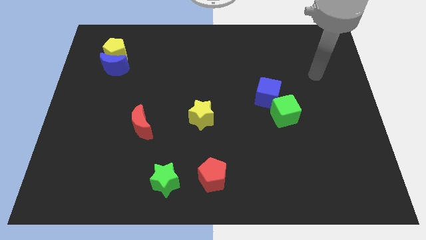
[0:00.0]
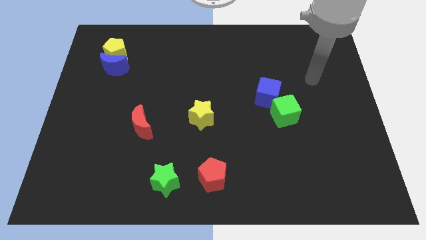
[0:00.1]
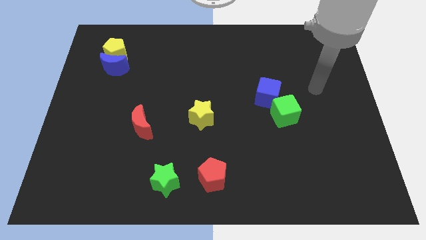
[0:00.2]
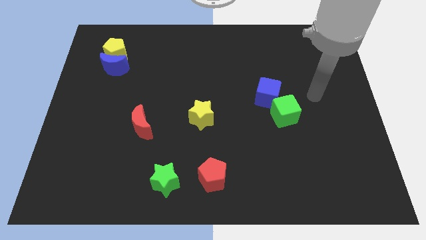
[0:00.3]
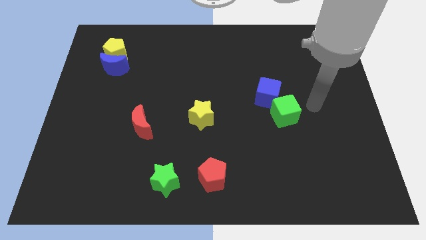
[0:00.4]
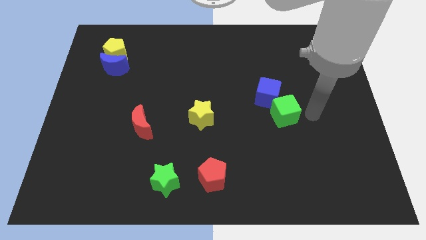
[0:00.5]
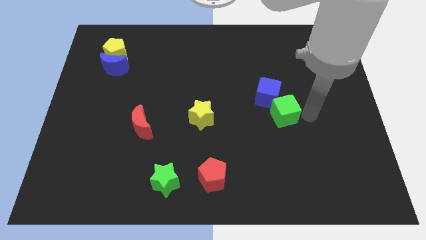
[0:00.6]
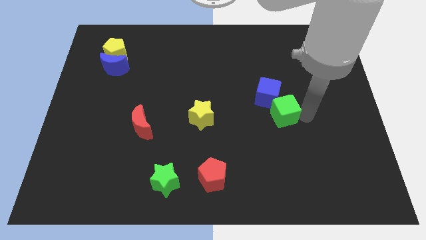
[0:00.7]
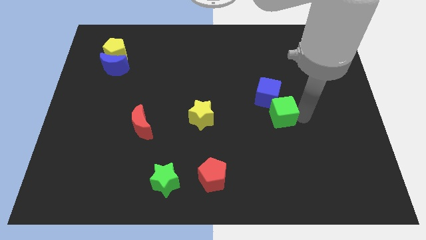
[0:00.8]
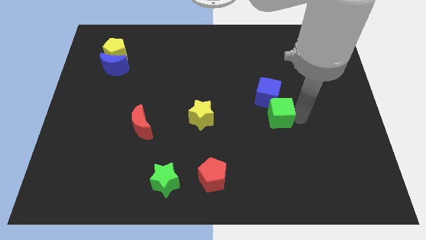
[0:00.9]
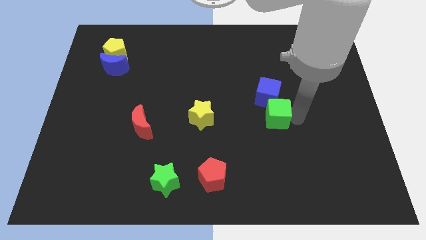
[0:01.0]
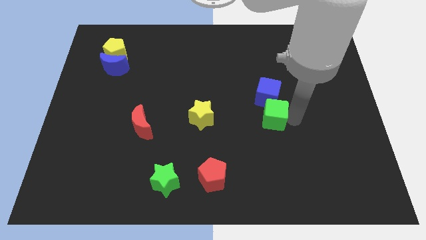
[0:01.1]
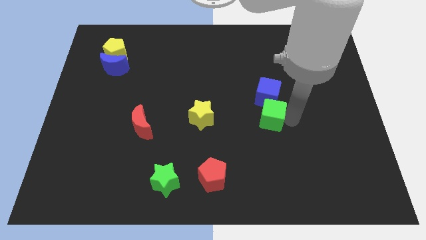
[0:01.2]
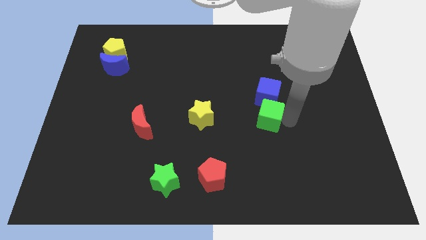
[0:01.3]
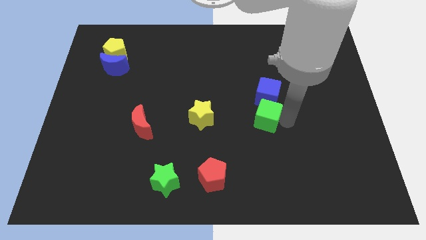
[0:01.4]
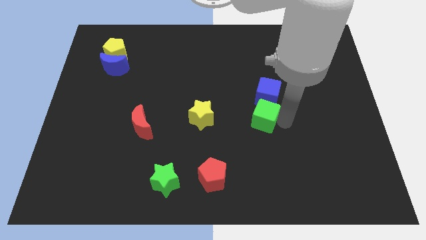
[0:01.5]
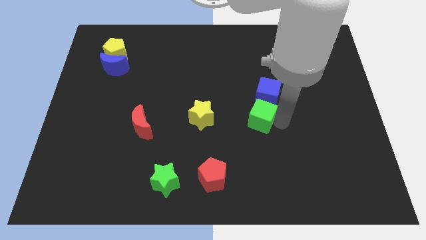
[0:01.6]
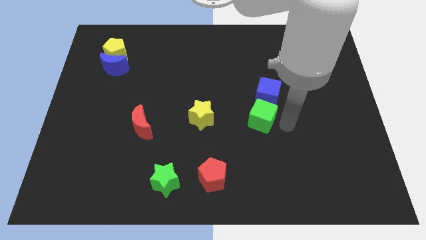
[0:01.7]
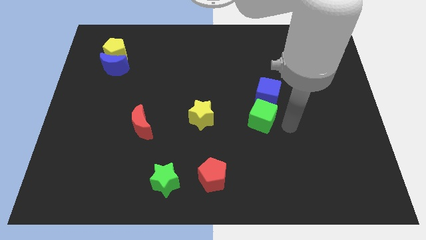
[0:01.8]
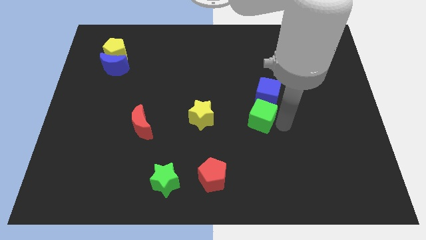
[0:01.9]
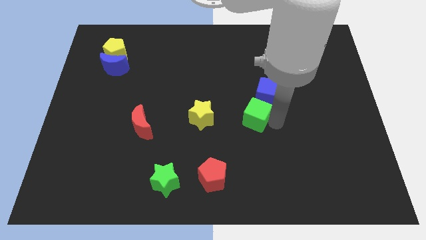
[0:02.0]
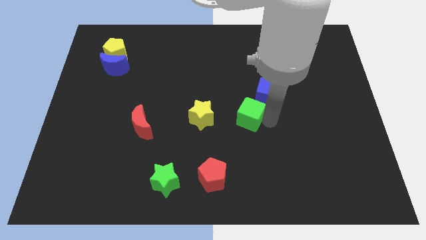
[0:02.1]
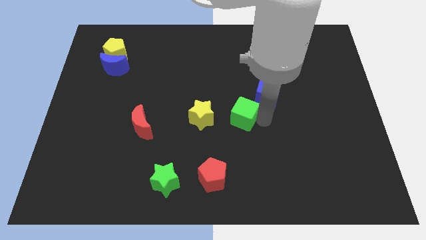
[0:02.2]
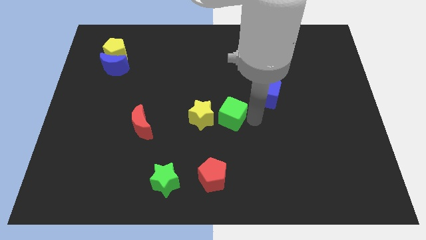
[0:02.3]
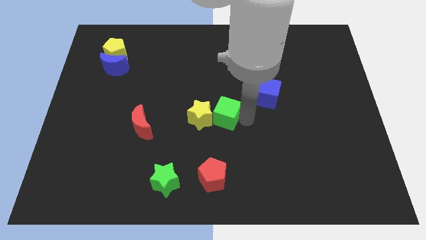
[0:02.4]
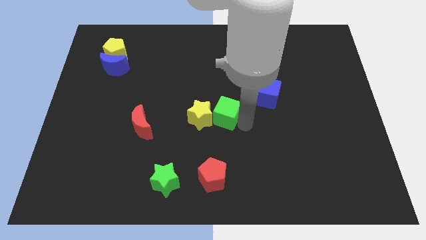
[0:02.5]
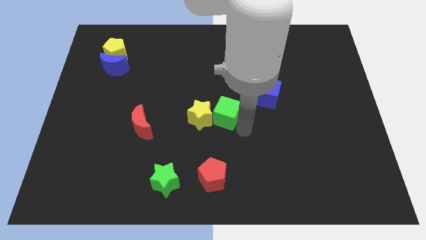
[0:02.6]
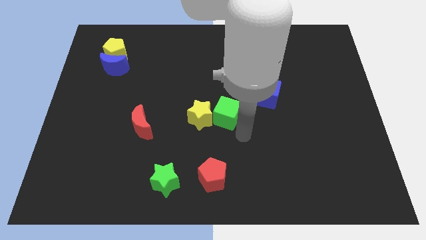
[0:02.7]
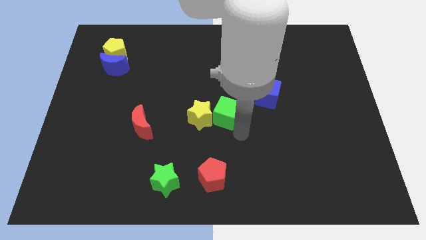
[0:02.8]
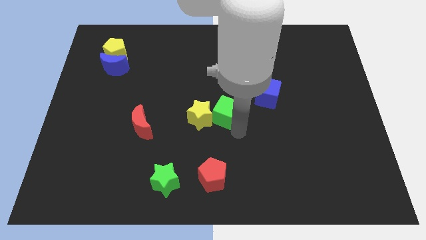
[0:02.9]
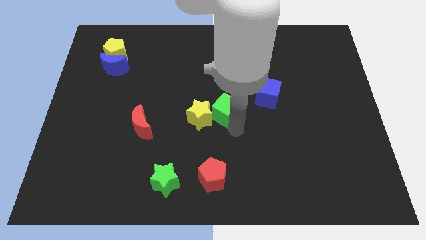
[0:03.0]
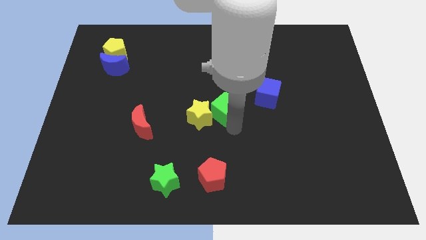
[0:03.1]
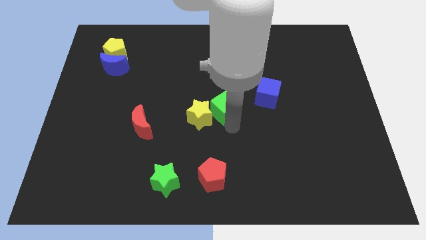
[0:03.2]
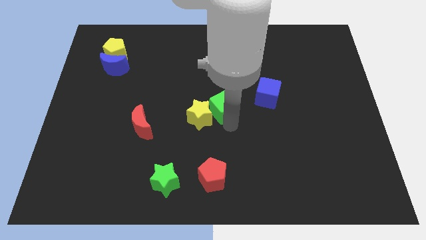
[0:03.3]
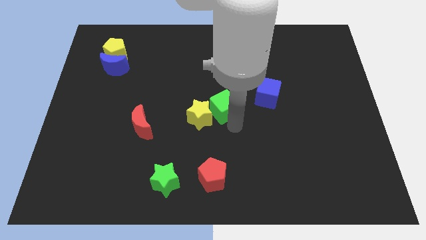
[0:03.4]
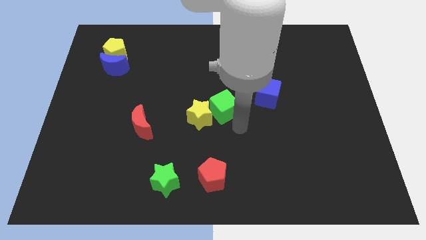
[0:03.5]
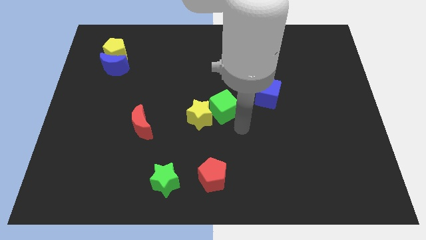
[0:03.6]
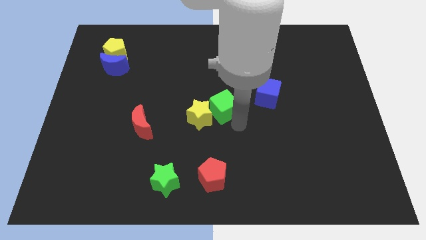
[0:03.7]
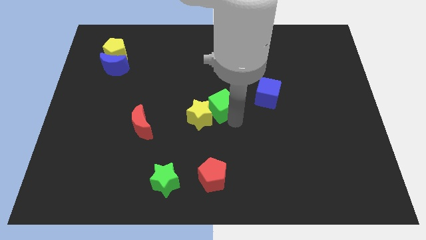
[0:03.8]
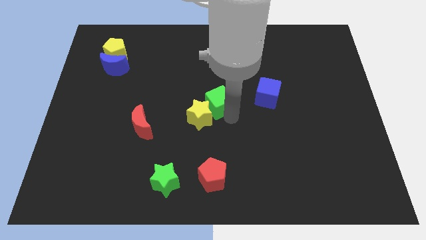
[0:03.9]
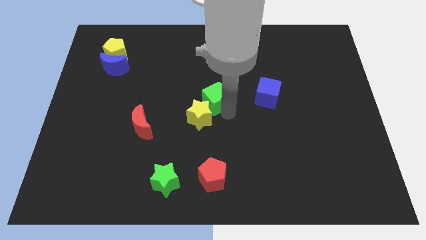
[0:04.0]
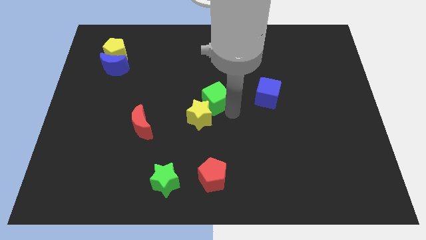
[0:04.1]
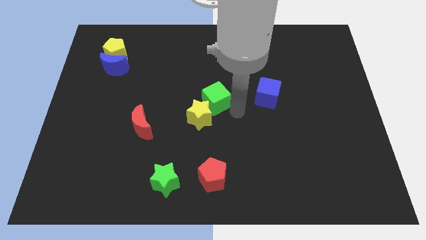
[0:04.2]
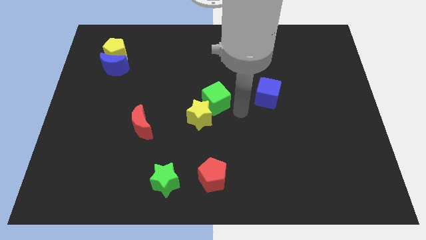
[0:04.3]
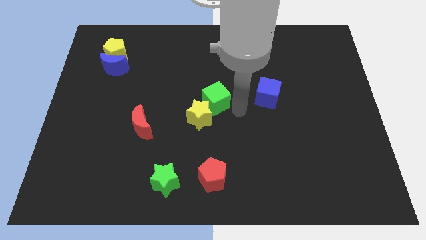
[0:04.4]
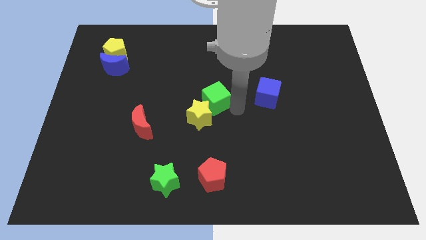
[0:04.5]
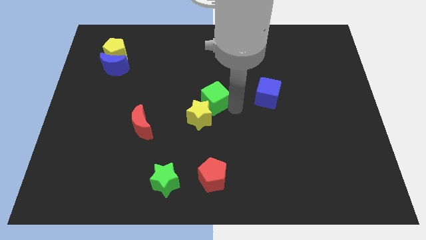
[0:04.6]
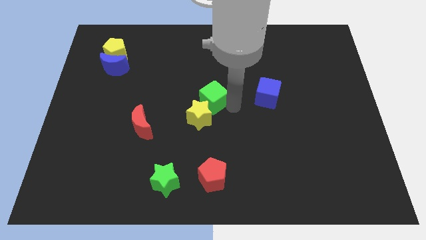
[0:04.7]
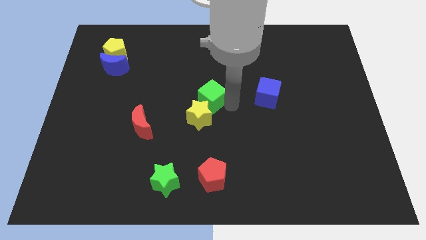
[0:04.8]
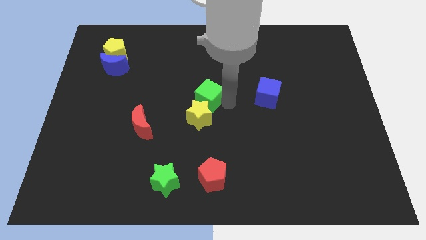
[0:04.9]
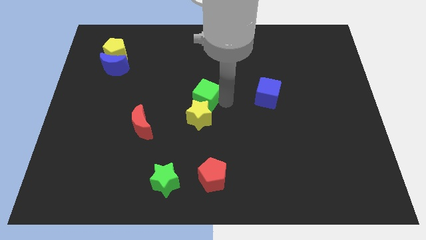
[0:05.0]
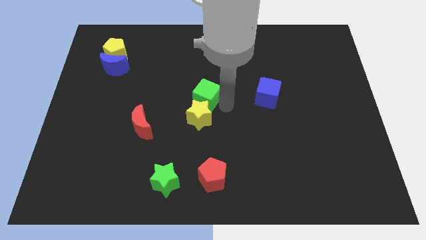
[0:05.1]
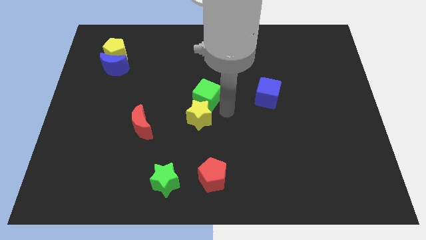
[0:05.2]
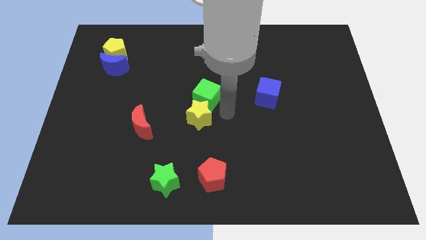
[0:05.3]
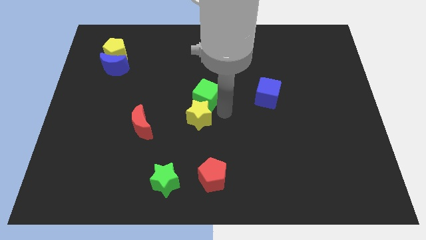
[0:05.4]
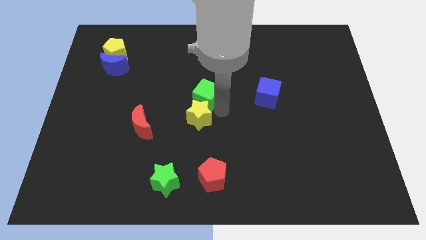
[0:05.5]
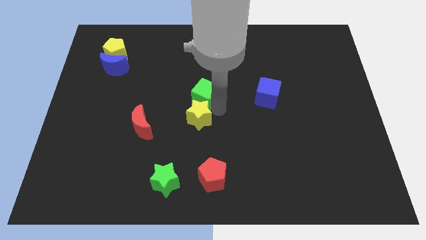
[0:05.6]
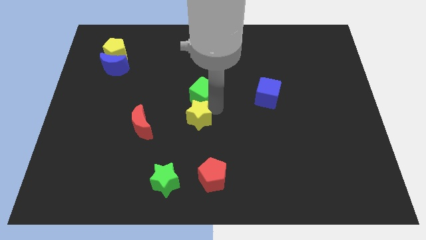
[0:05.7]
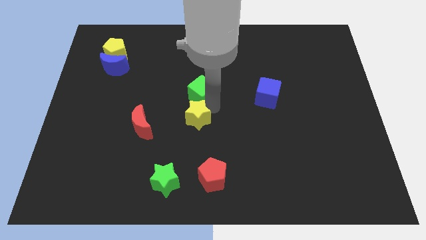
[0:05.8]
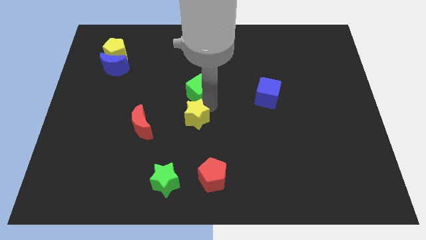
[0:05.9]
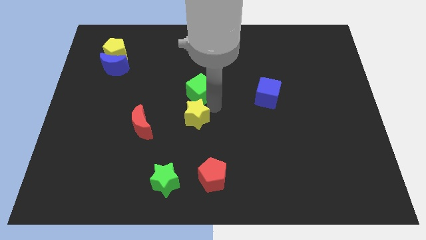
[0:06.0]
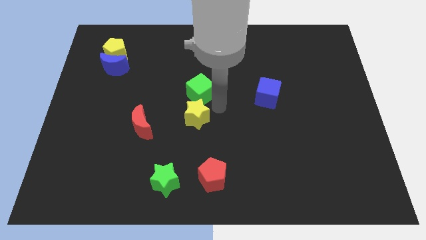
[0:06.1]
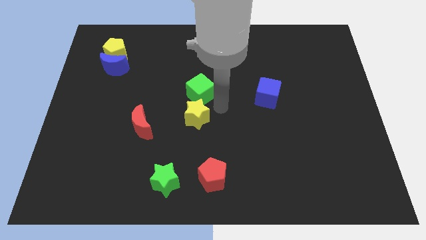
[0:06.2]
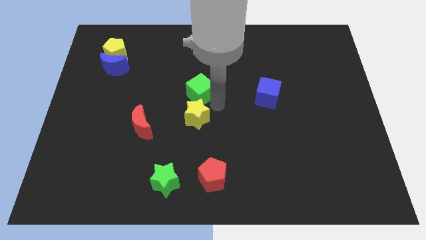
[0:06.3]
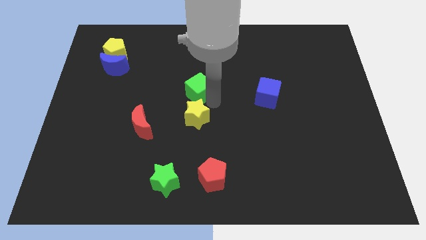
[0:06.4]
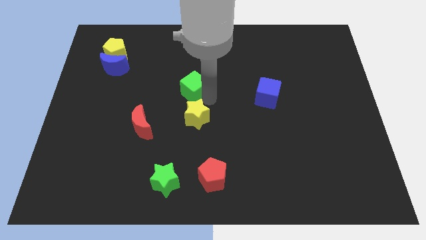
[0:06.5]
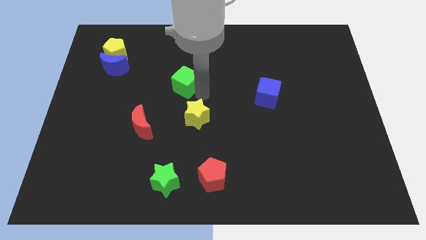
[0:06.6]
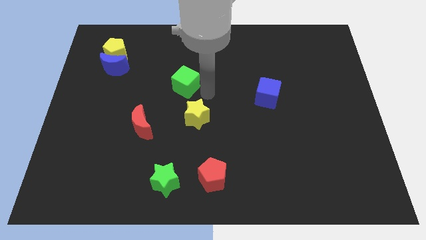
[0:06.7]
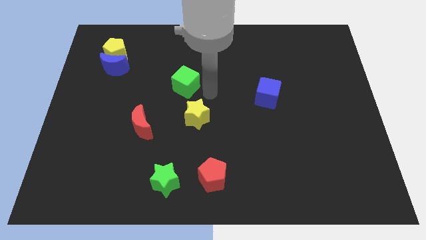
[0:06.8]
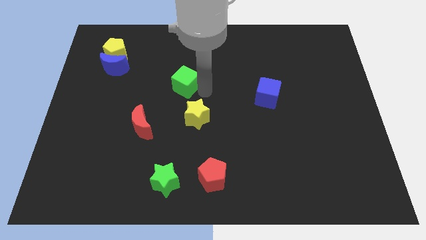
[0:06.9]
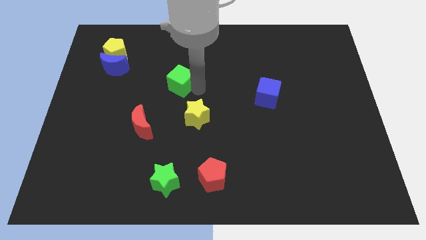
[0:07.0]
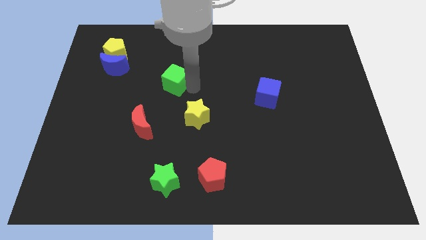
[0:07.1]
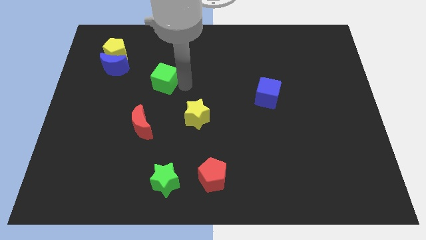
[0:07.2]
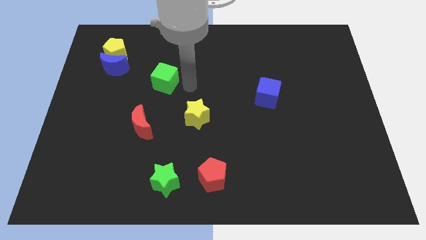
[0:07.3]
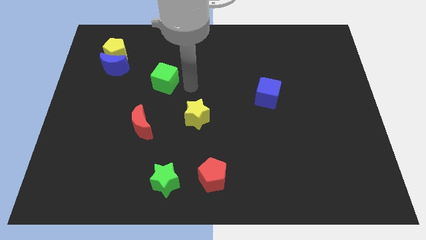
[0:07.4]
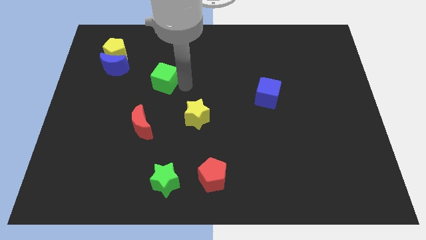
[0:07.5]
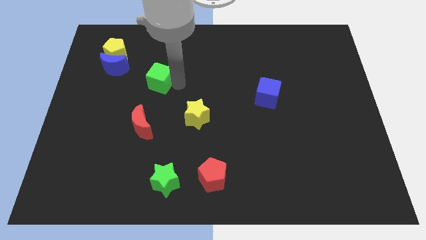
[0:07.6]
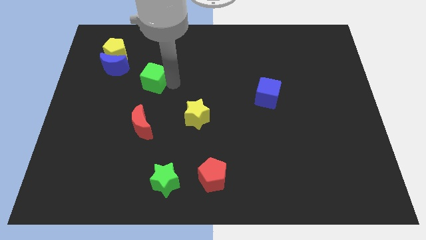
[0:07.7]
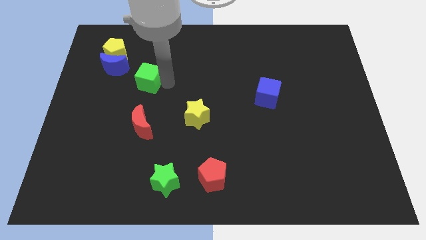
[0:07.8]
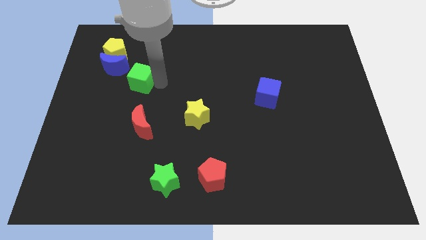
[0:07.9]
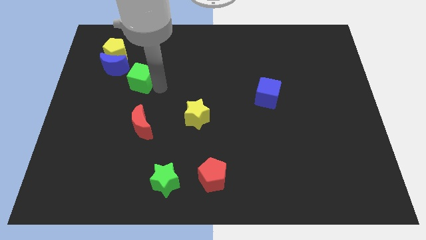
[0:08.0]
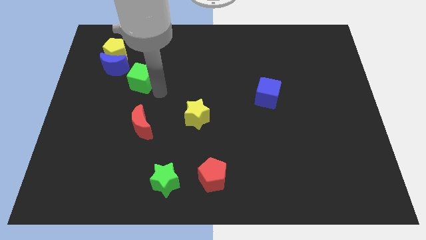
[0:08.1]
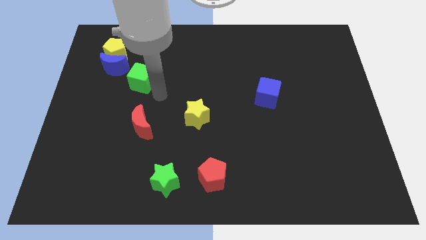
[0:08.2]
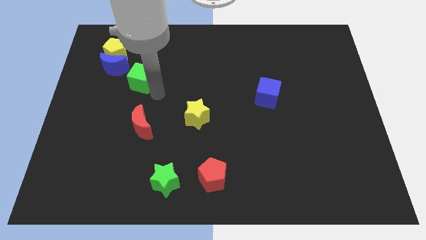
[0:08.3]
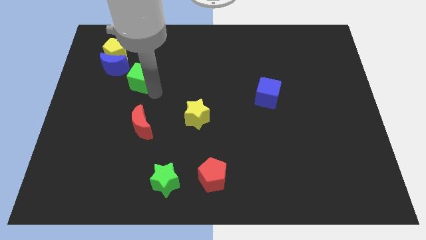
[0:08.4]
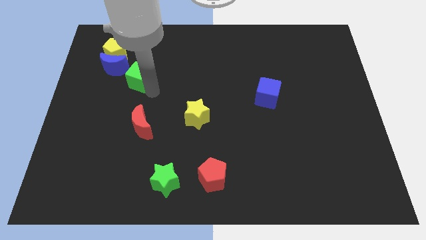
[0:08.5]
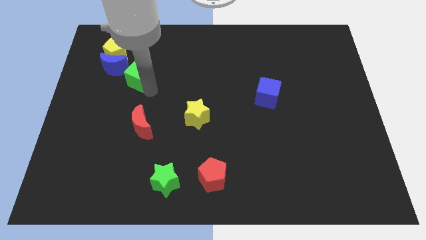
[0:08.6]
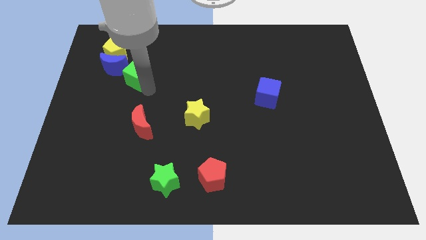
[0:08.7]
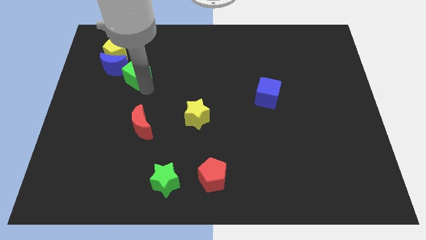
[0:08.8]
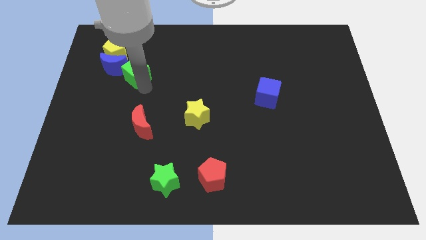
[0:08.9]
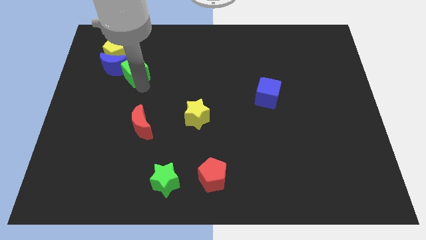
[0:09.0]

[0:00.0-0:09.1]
move the green cube to the blue moon
